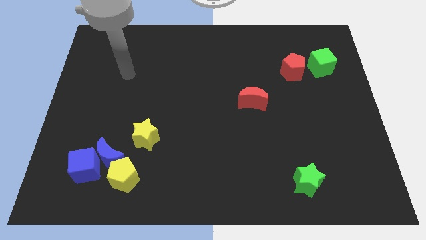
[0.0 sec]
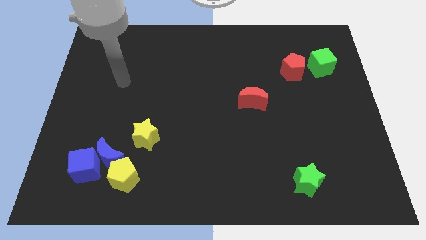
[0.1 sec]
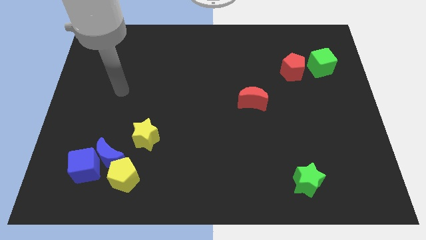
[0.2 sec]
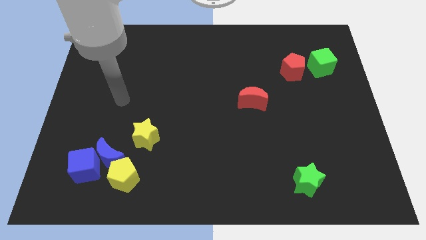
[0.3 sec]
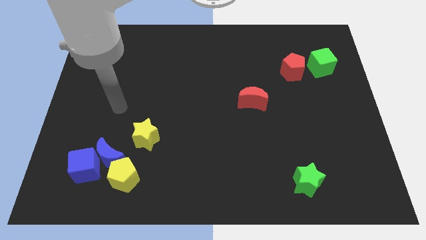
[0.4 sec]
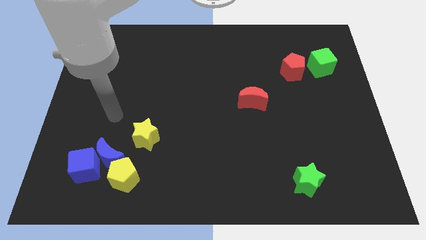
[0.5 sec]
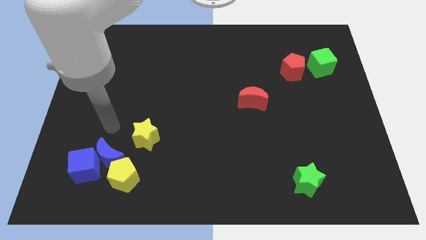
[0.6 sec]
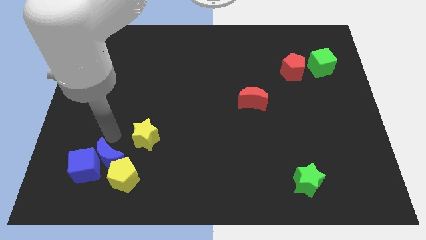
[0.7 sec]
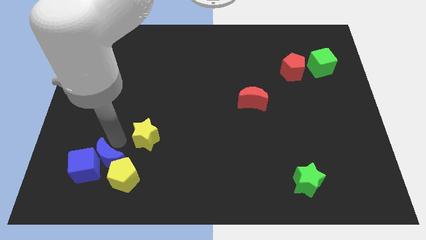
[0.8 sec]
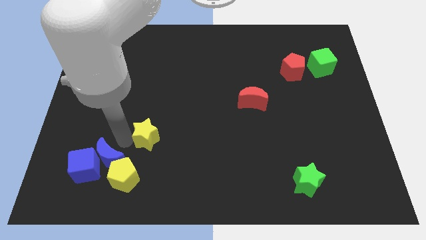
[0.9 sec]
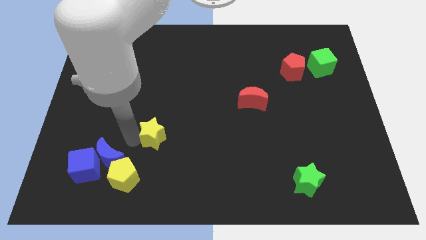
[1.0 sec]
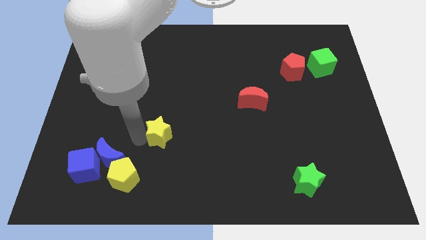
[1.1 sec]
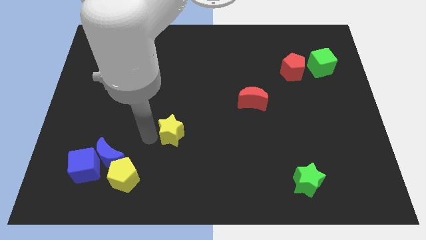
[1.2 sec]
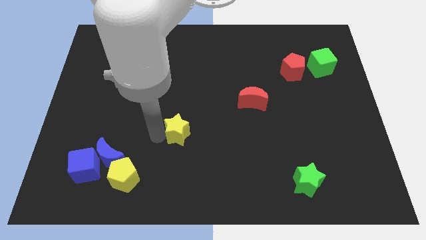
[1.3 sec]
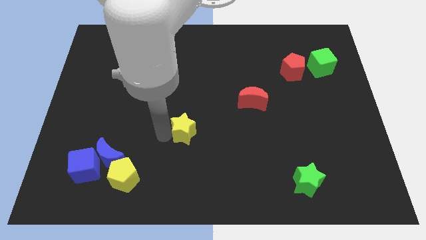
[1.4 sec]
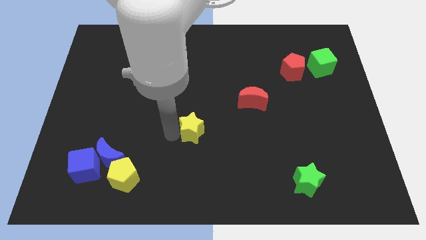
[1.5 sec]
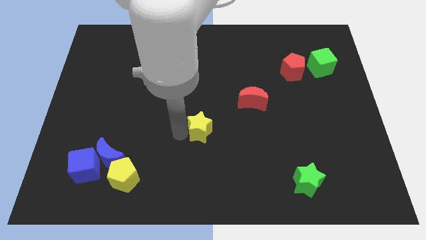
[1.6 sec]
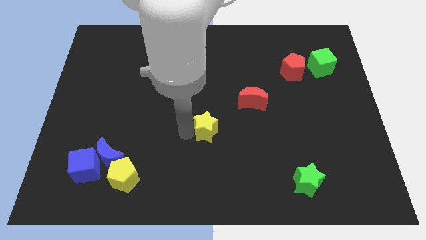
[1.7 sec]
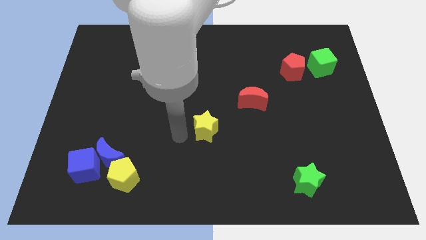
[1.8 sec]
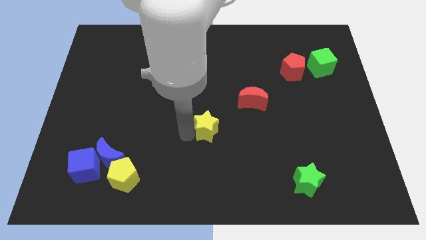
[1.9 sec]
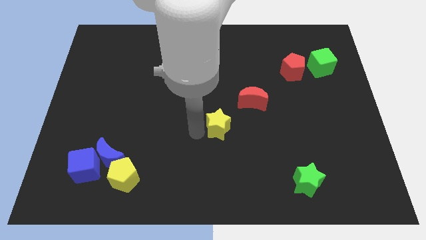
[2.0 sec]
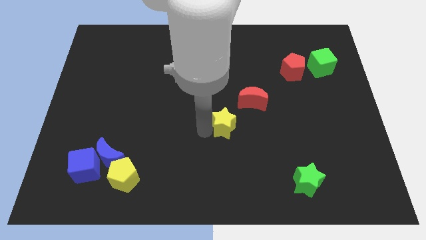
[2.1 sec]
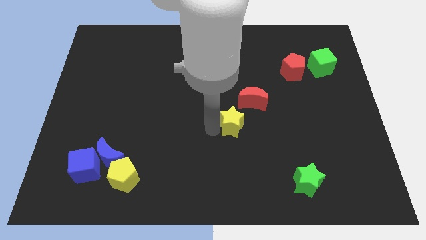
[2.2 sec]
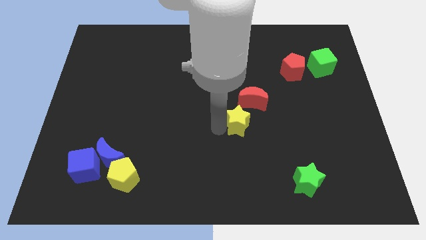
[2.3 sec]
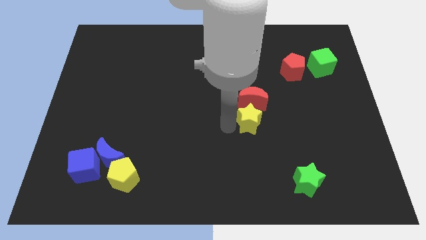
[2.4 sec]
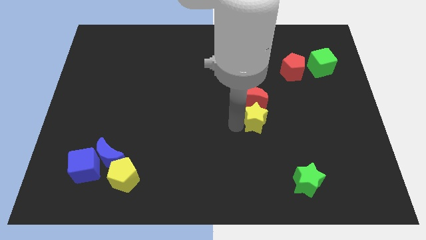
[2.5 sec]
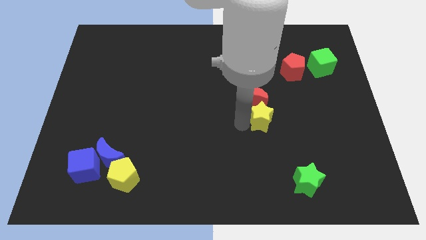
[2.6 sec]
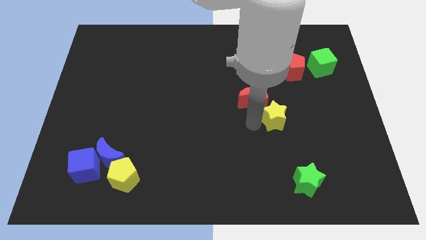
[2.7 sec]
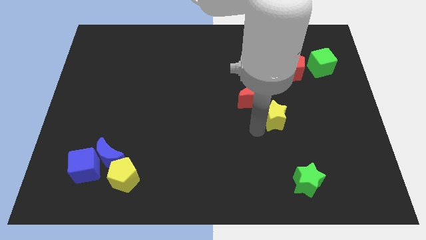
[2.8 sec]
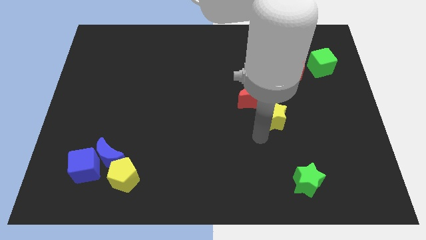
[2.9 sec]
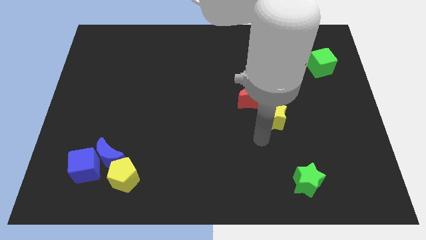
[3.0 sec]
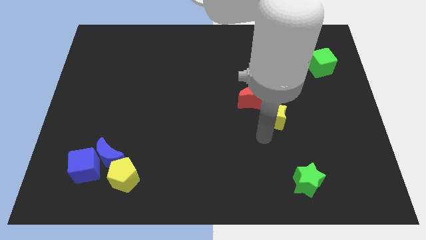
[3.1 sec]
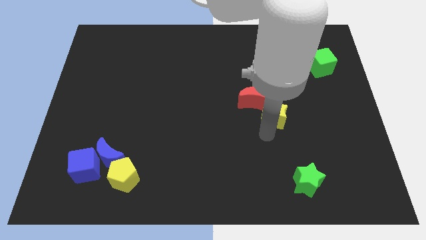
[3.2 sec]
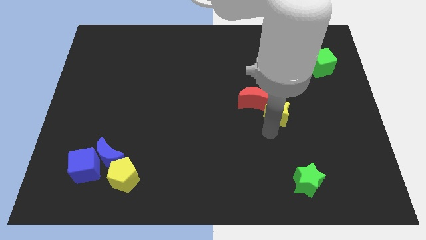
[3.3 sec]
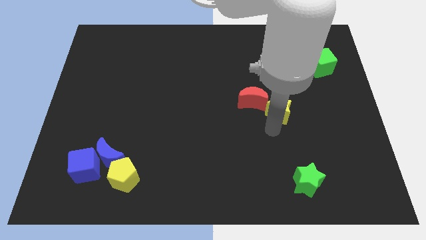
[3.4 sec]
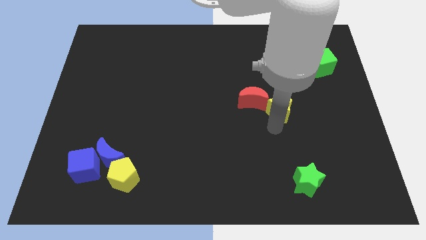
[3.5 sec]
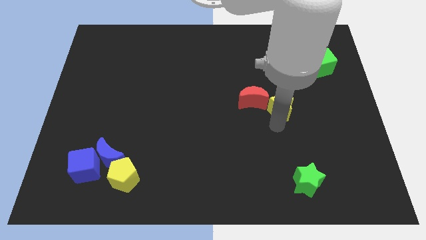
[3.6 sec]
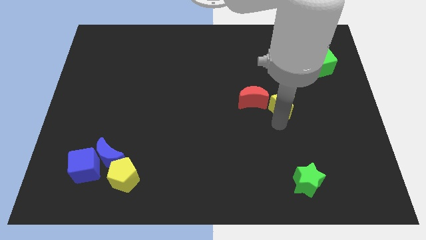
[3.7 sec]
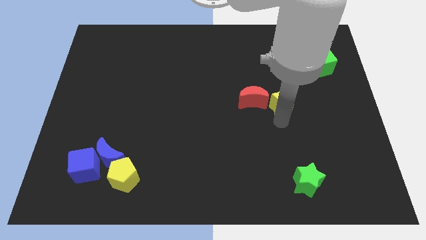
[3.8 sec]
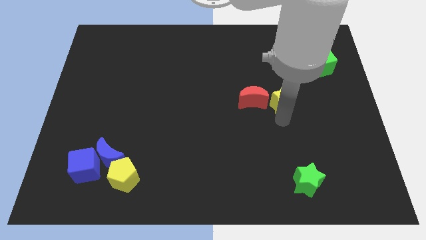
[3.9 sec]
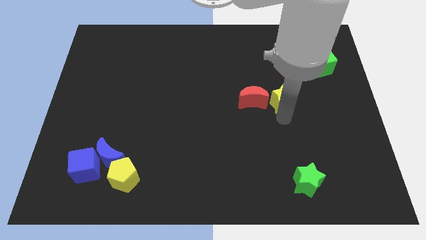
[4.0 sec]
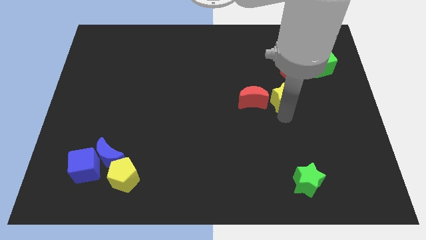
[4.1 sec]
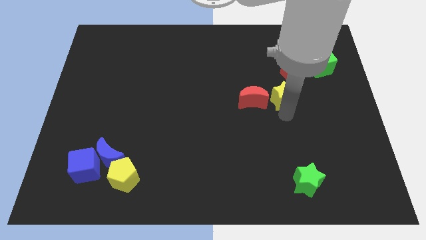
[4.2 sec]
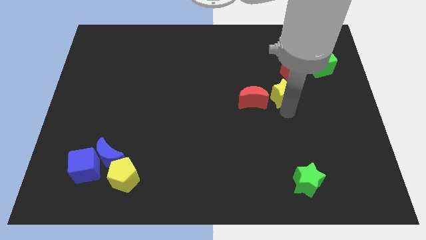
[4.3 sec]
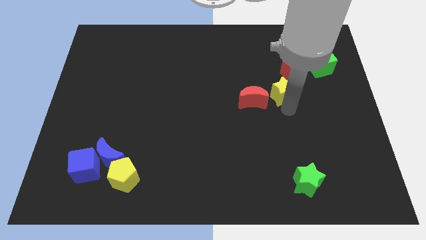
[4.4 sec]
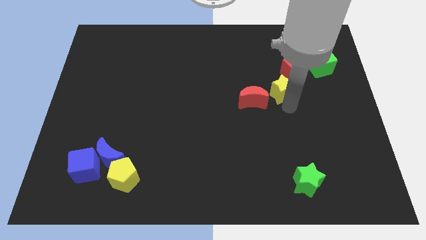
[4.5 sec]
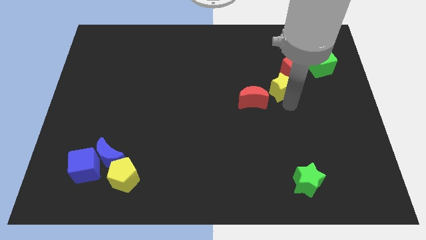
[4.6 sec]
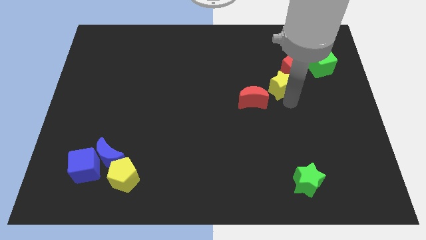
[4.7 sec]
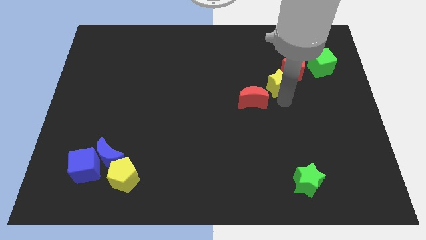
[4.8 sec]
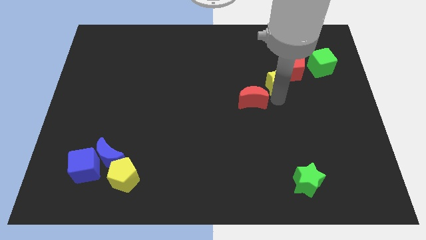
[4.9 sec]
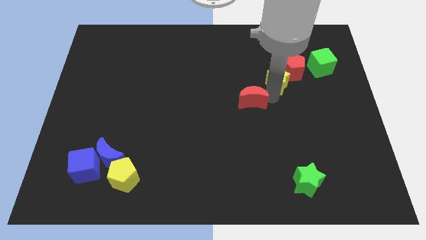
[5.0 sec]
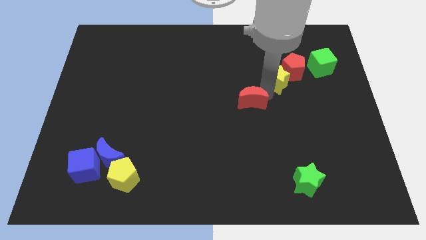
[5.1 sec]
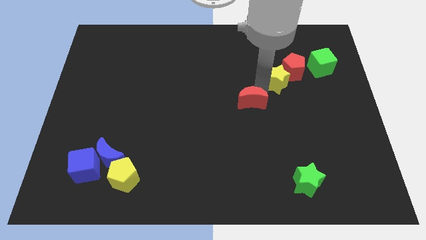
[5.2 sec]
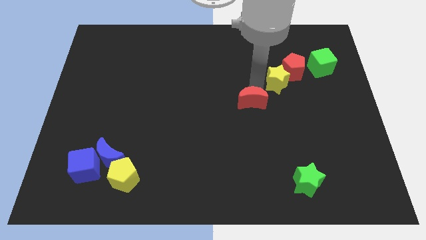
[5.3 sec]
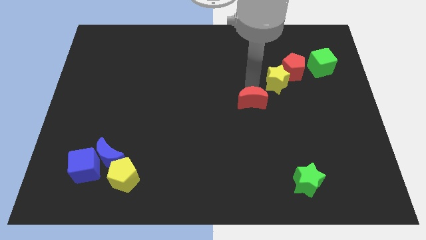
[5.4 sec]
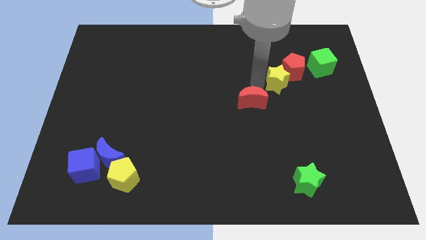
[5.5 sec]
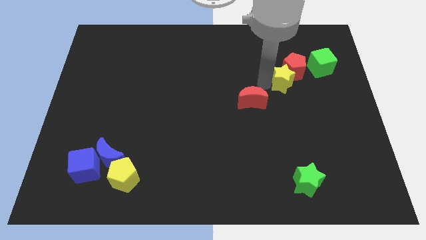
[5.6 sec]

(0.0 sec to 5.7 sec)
move the yellow star to the bottom left of the green cube

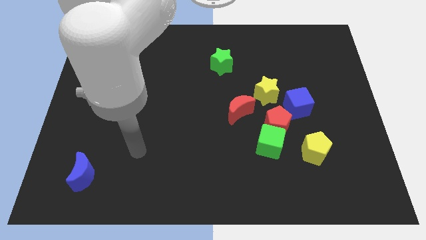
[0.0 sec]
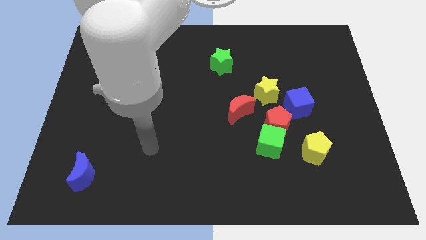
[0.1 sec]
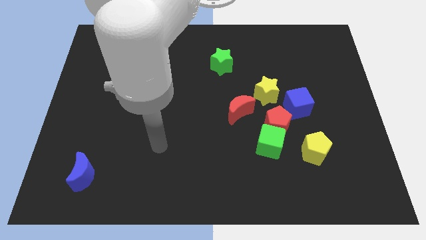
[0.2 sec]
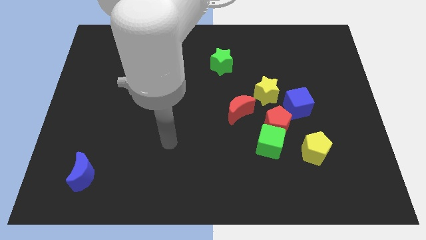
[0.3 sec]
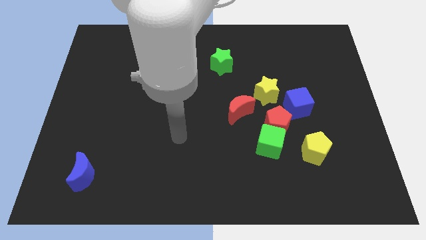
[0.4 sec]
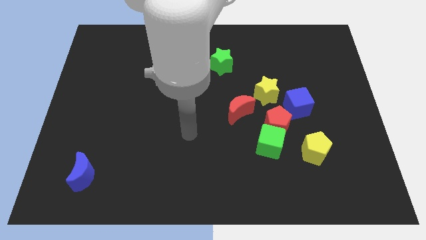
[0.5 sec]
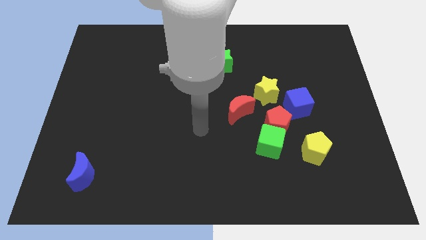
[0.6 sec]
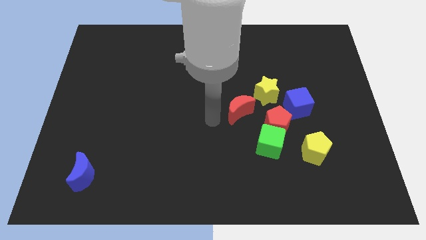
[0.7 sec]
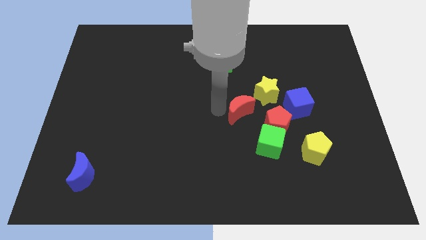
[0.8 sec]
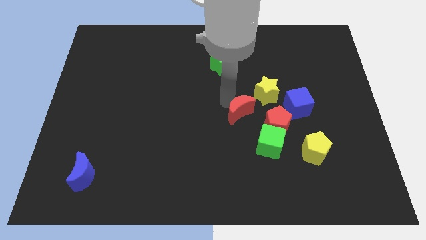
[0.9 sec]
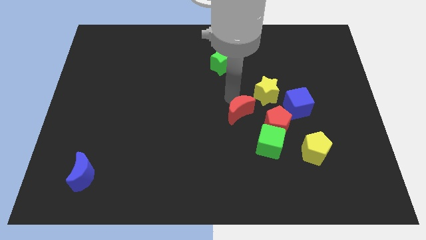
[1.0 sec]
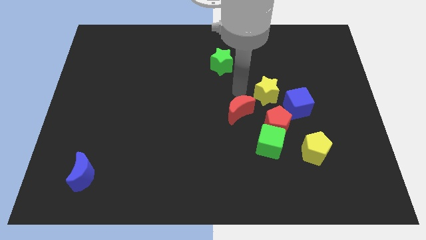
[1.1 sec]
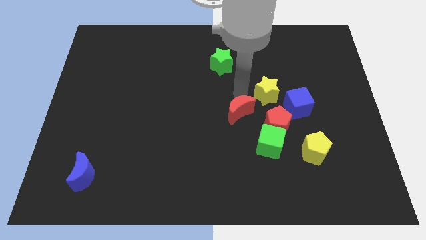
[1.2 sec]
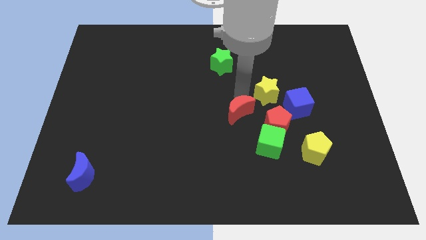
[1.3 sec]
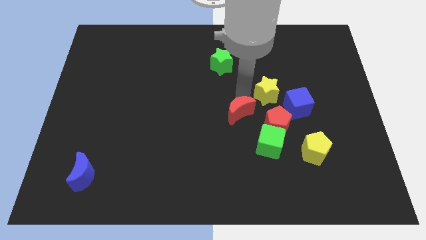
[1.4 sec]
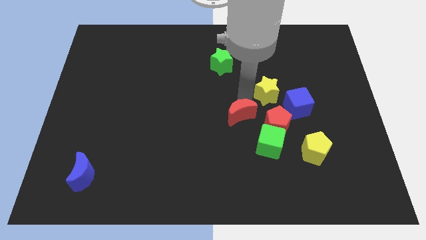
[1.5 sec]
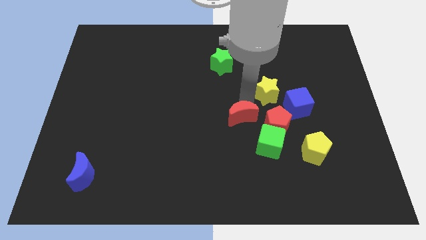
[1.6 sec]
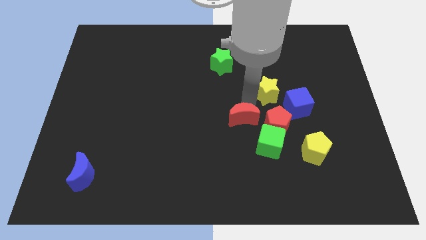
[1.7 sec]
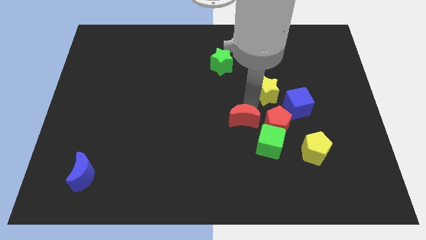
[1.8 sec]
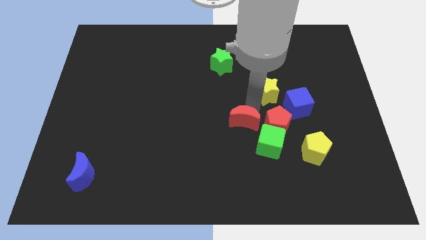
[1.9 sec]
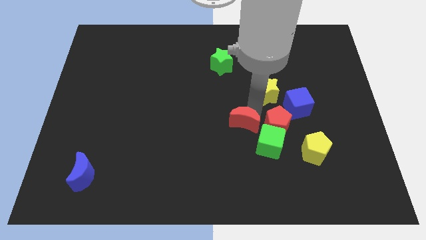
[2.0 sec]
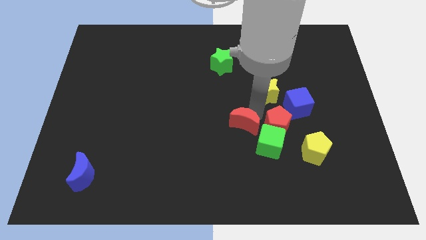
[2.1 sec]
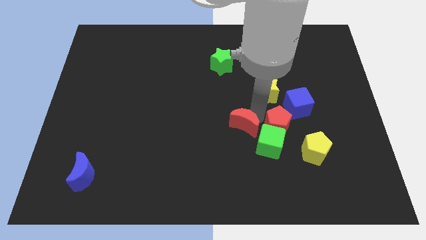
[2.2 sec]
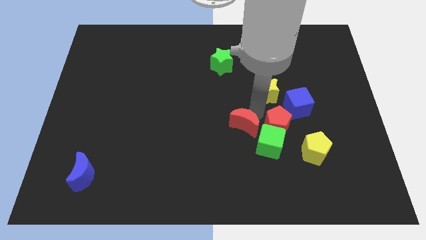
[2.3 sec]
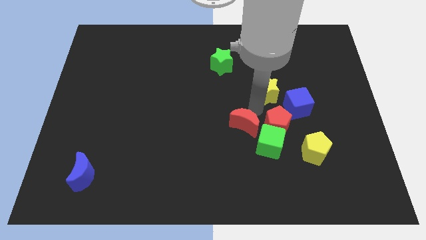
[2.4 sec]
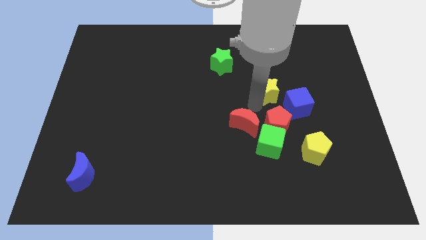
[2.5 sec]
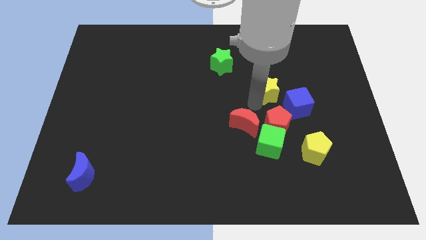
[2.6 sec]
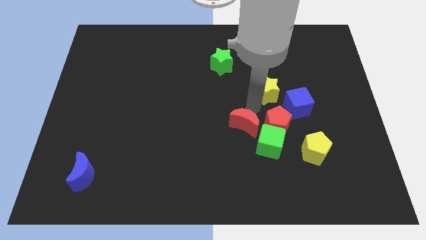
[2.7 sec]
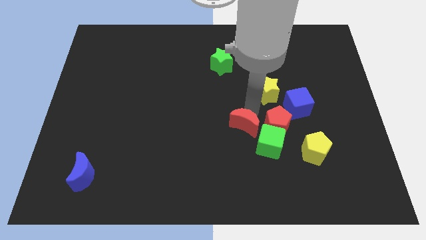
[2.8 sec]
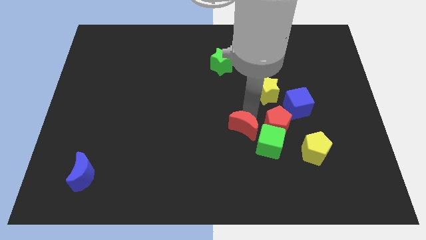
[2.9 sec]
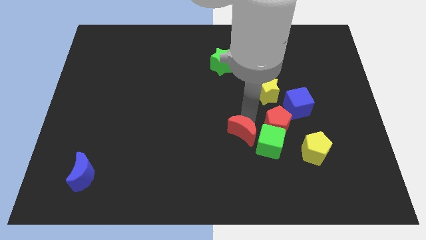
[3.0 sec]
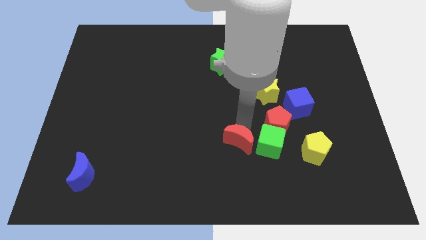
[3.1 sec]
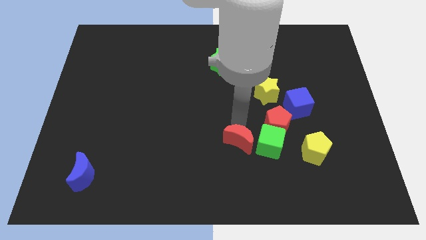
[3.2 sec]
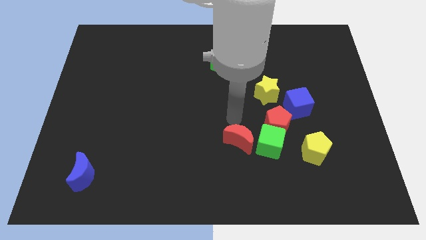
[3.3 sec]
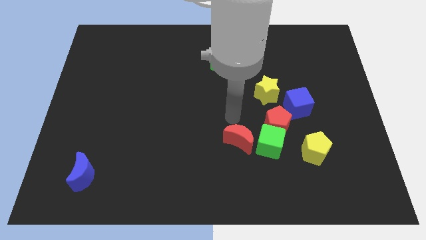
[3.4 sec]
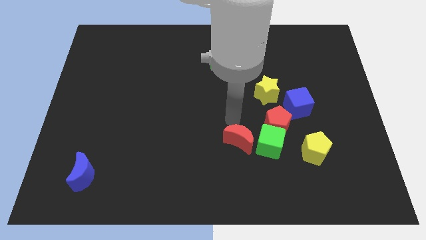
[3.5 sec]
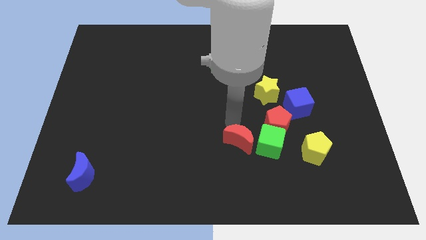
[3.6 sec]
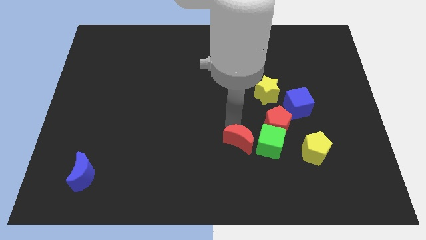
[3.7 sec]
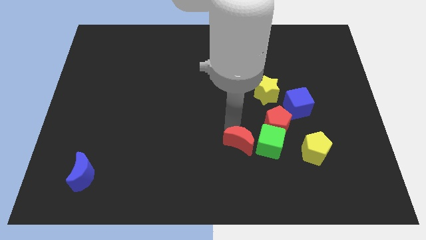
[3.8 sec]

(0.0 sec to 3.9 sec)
move the red moon to the bottom left side of the green cube
